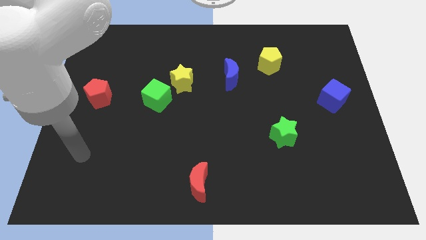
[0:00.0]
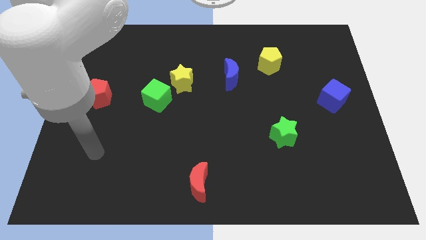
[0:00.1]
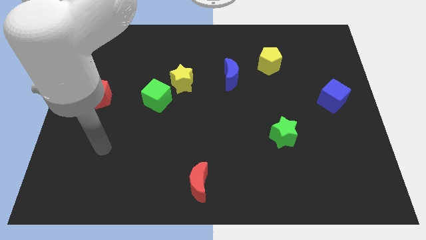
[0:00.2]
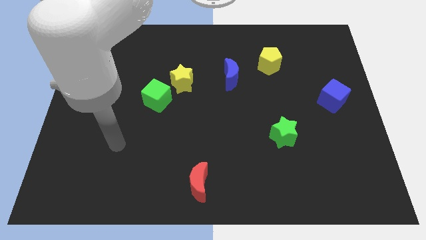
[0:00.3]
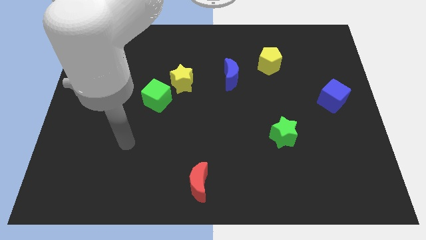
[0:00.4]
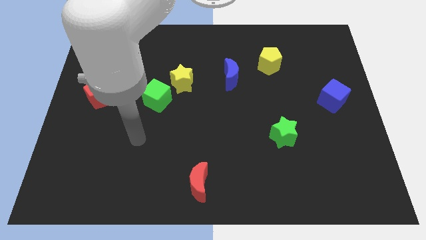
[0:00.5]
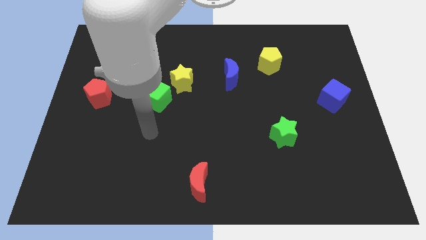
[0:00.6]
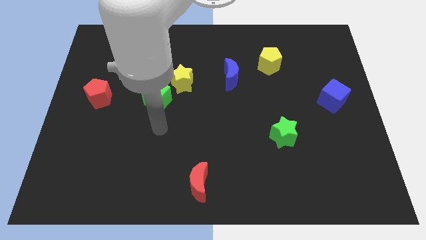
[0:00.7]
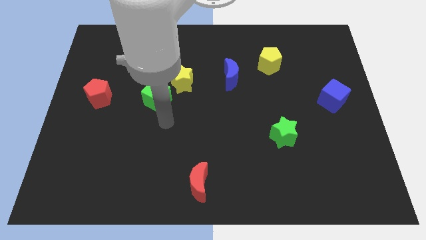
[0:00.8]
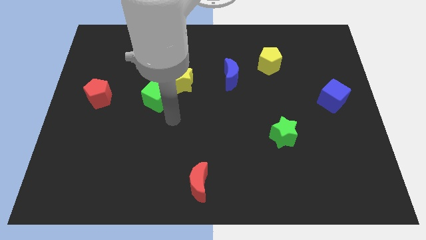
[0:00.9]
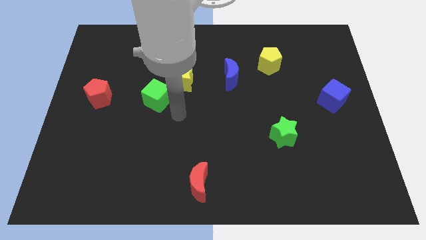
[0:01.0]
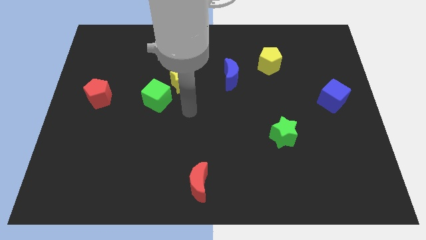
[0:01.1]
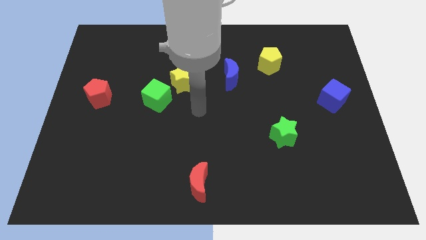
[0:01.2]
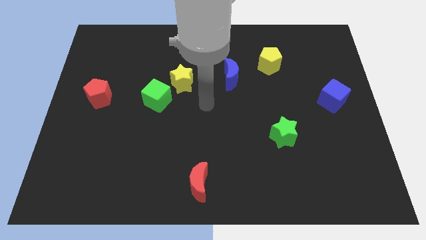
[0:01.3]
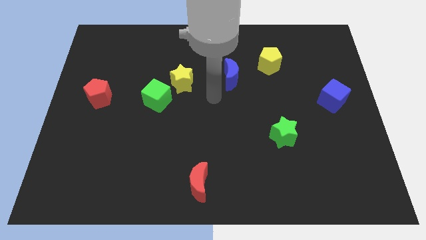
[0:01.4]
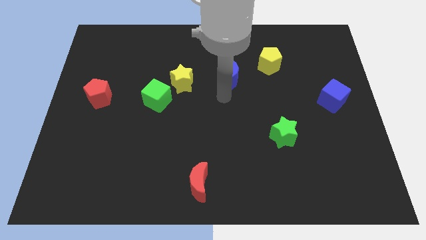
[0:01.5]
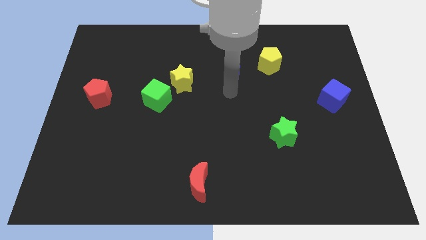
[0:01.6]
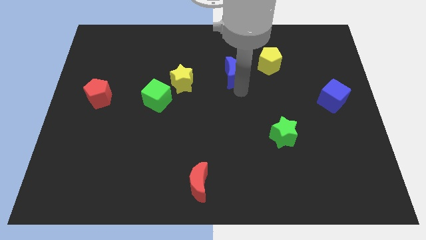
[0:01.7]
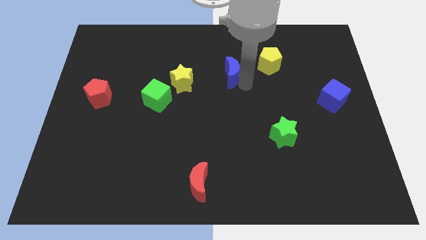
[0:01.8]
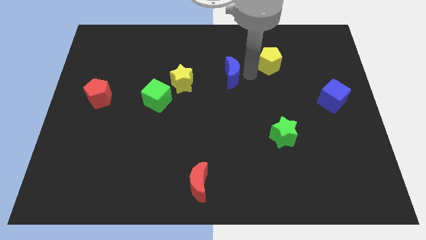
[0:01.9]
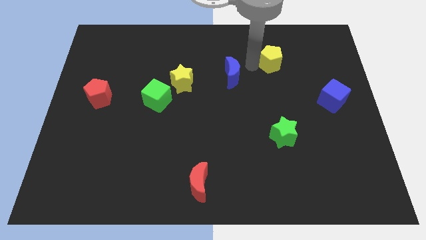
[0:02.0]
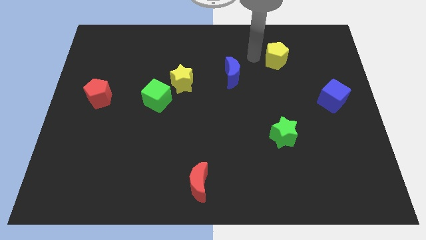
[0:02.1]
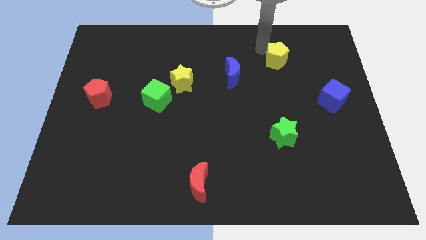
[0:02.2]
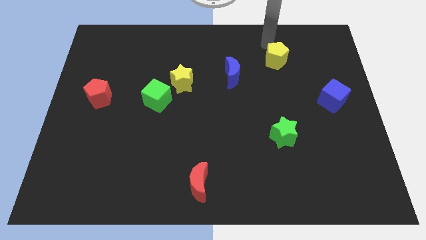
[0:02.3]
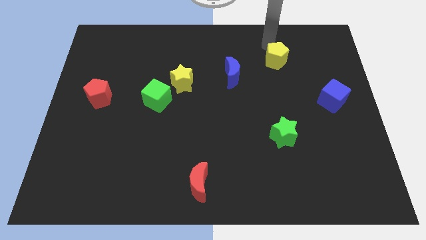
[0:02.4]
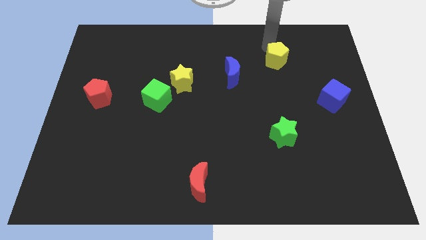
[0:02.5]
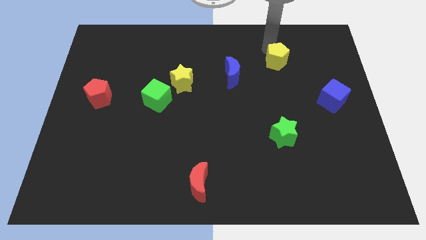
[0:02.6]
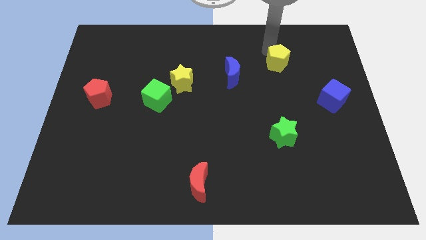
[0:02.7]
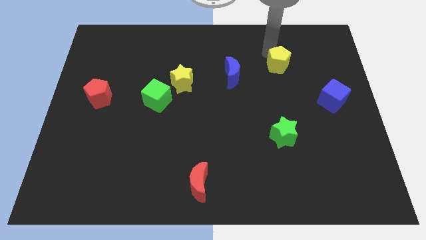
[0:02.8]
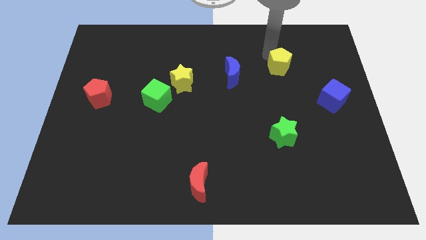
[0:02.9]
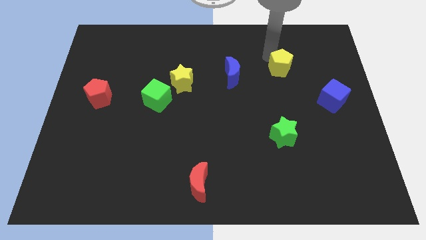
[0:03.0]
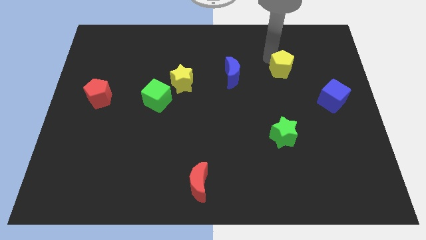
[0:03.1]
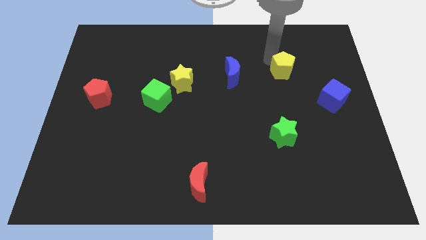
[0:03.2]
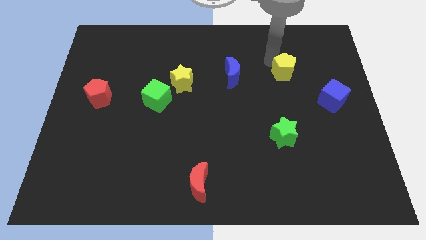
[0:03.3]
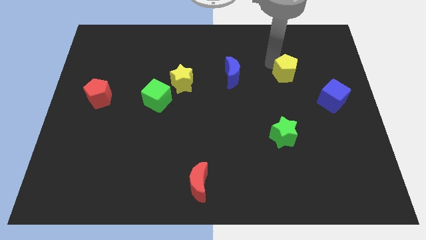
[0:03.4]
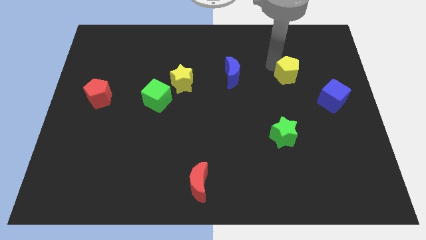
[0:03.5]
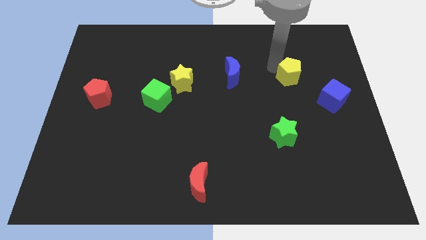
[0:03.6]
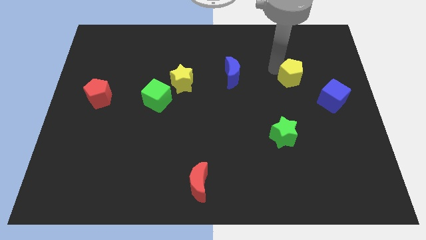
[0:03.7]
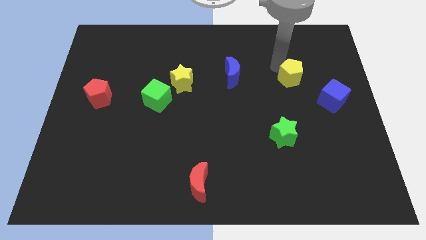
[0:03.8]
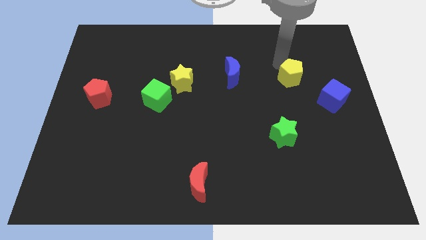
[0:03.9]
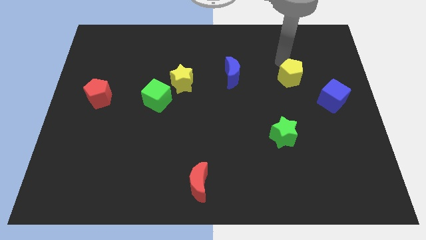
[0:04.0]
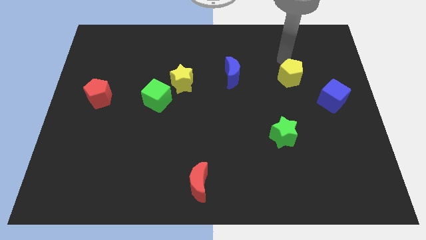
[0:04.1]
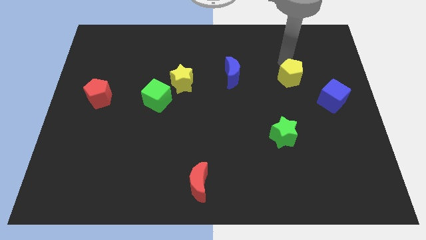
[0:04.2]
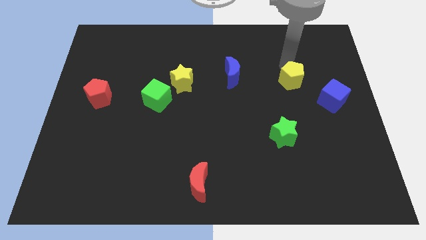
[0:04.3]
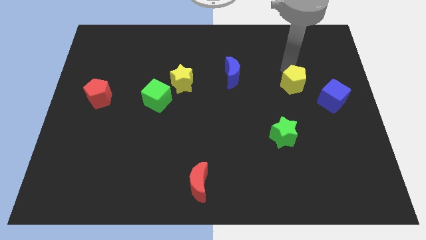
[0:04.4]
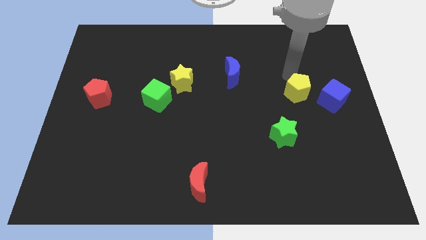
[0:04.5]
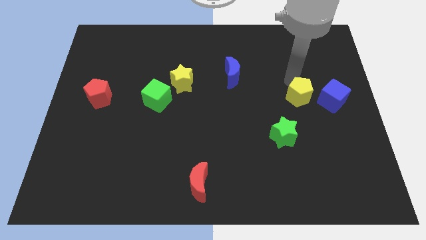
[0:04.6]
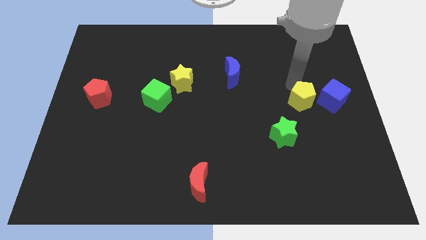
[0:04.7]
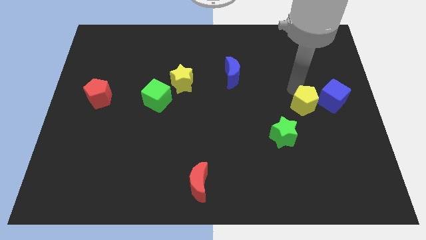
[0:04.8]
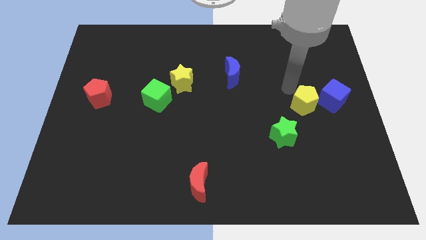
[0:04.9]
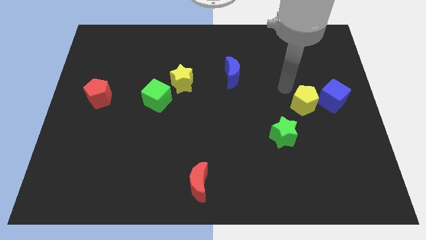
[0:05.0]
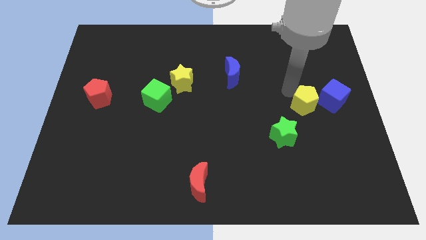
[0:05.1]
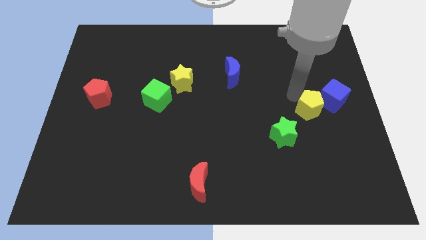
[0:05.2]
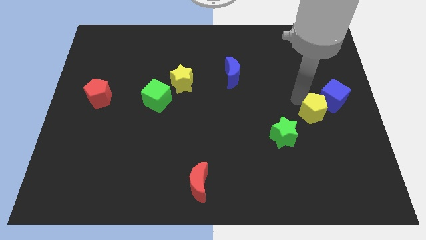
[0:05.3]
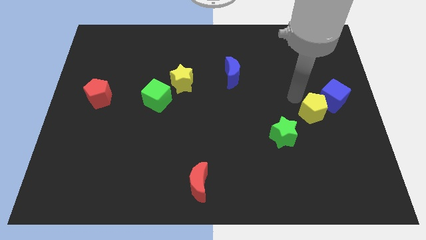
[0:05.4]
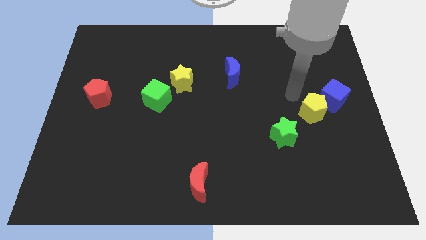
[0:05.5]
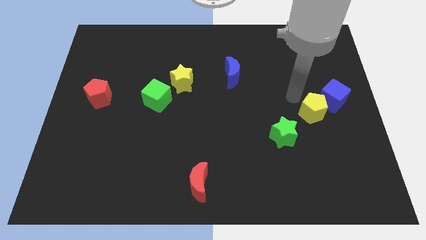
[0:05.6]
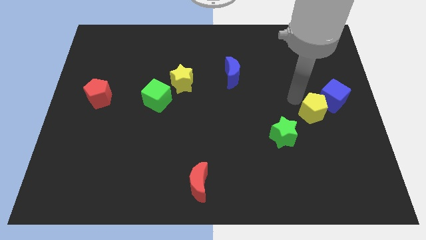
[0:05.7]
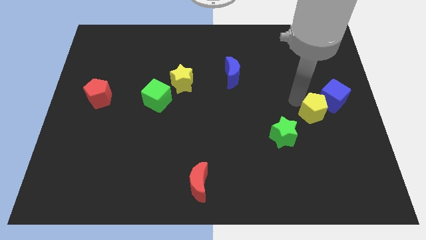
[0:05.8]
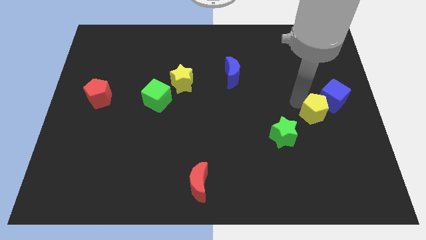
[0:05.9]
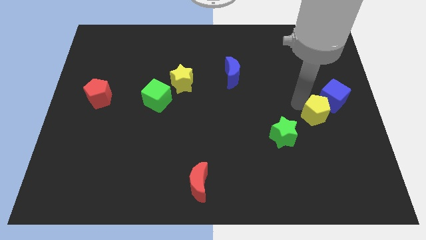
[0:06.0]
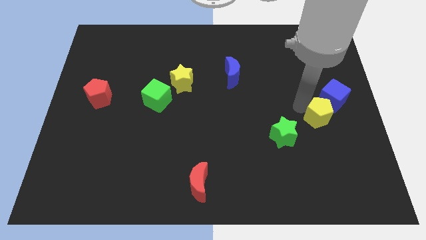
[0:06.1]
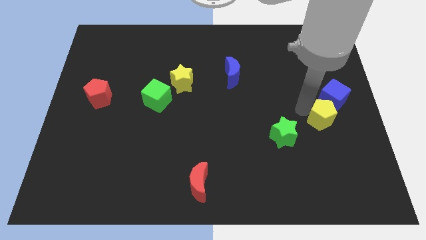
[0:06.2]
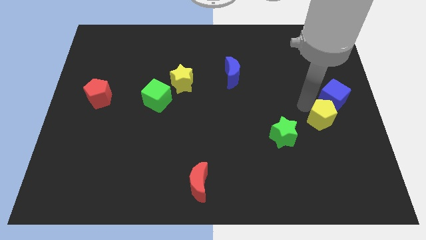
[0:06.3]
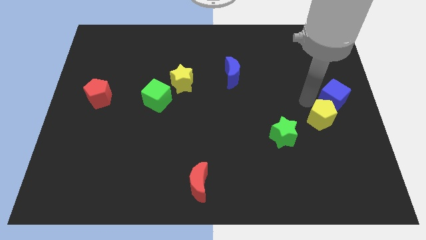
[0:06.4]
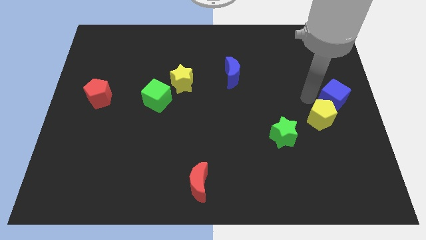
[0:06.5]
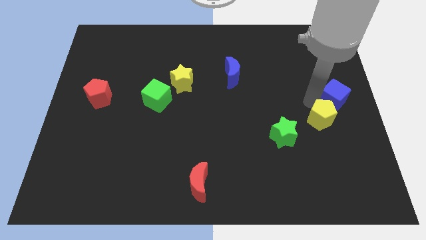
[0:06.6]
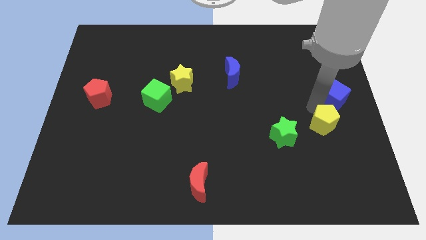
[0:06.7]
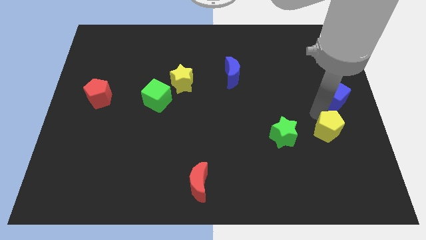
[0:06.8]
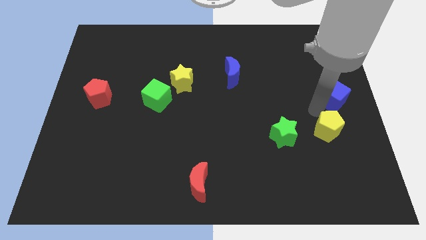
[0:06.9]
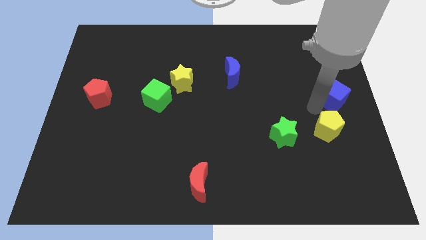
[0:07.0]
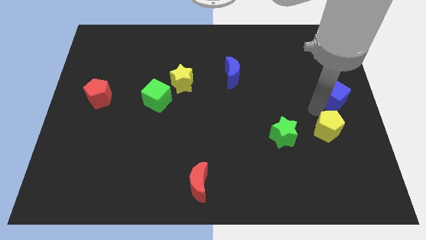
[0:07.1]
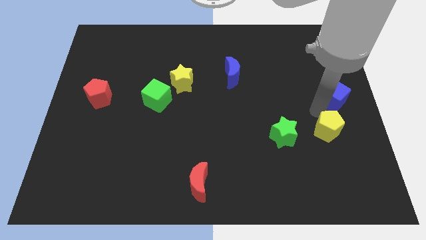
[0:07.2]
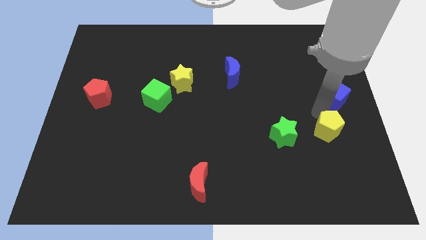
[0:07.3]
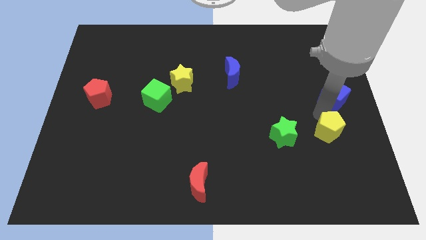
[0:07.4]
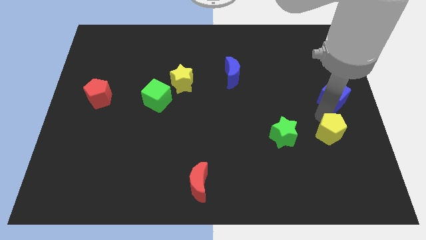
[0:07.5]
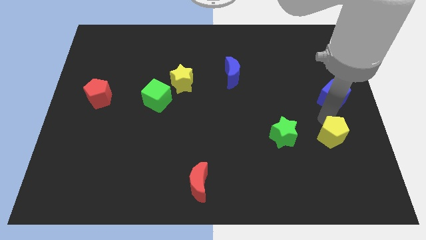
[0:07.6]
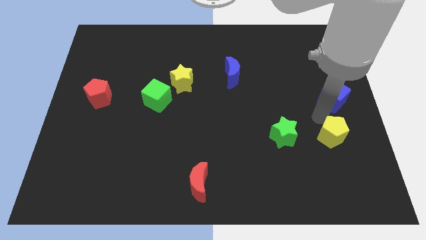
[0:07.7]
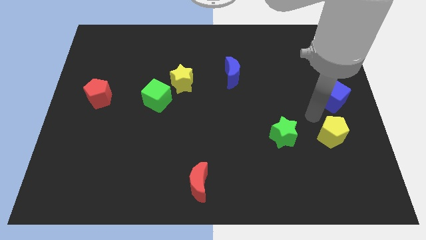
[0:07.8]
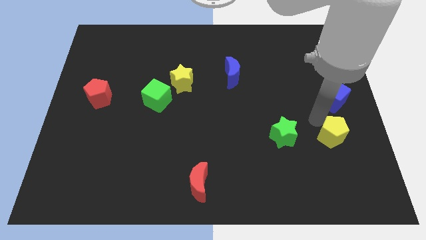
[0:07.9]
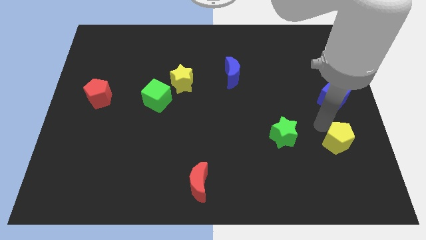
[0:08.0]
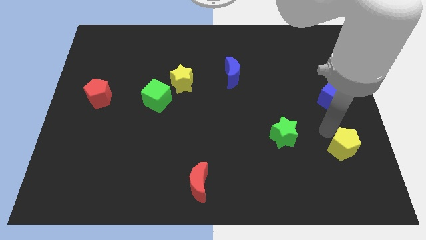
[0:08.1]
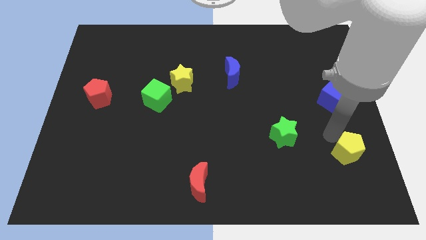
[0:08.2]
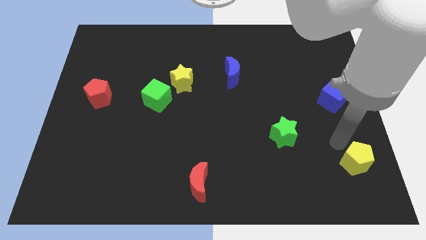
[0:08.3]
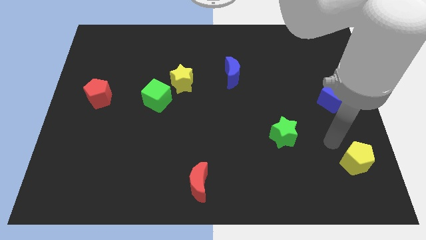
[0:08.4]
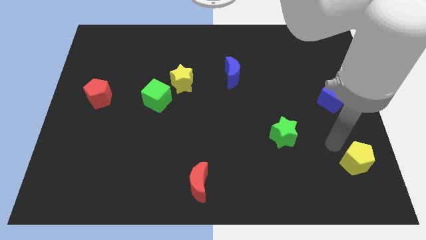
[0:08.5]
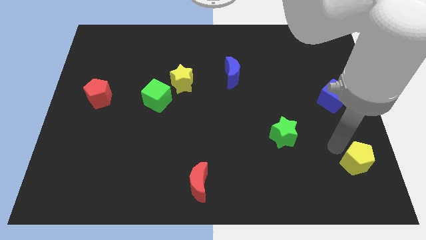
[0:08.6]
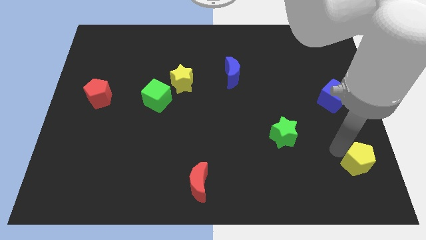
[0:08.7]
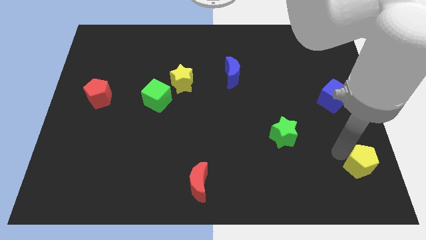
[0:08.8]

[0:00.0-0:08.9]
put the yellow pentagon to the bottom right of the board
